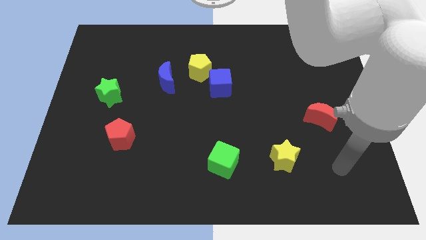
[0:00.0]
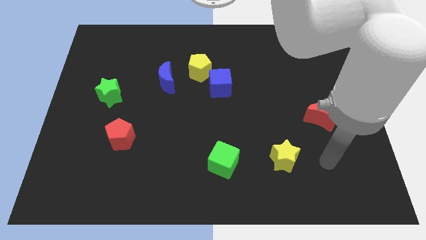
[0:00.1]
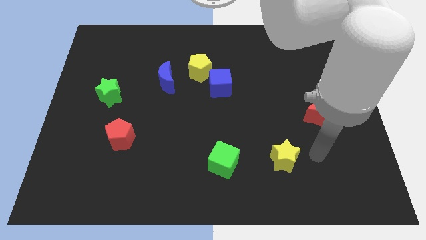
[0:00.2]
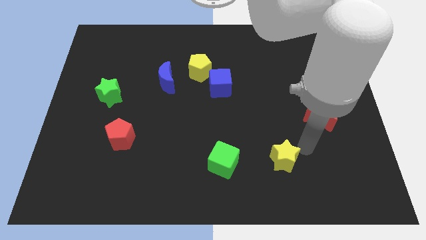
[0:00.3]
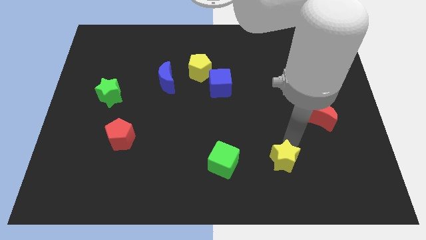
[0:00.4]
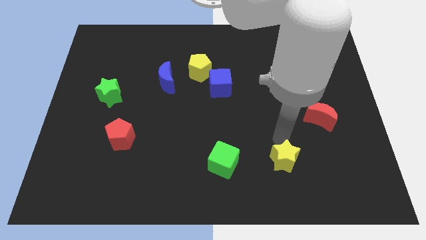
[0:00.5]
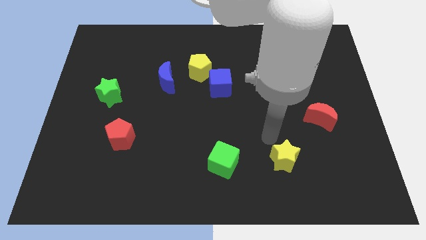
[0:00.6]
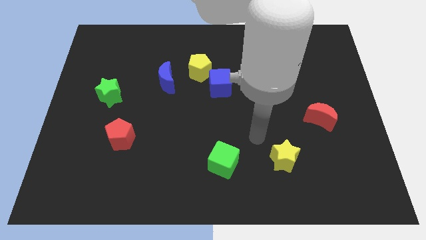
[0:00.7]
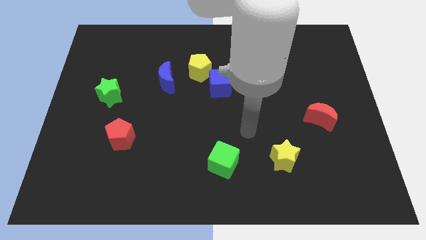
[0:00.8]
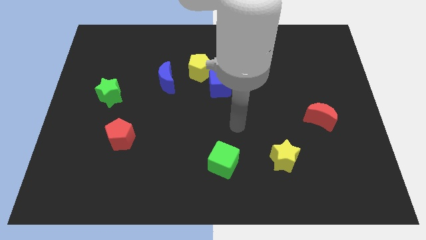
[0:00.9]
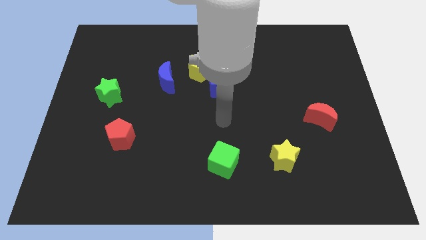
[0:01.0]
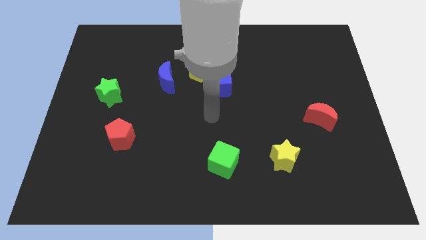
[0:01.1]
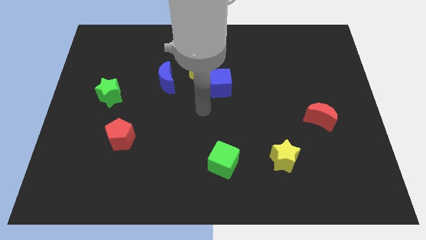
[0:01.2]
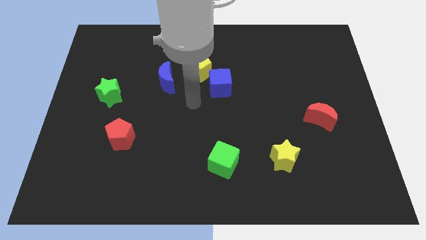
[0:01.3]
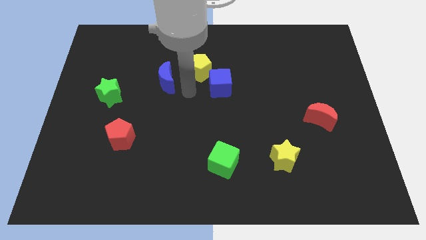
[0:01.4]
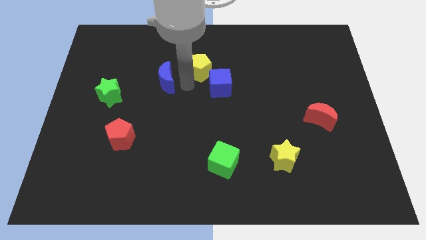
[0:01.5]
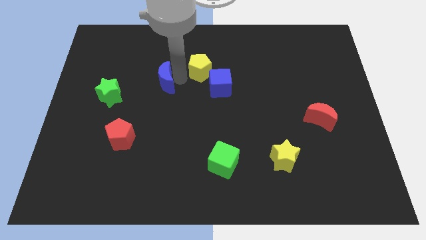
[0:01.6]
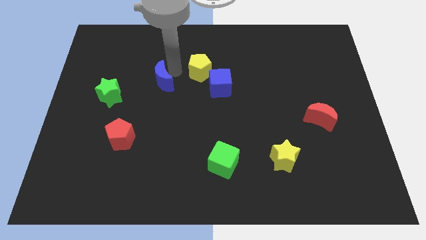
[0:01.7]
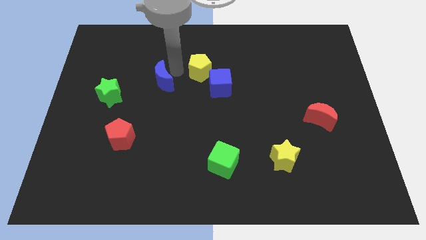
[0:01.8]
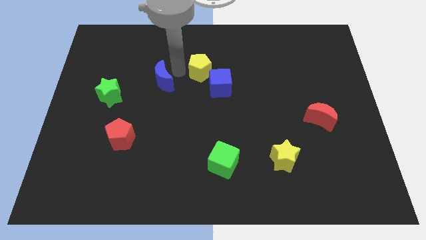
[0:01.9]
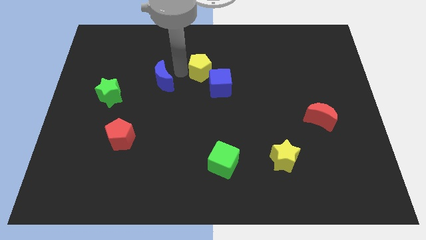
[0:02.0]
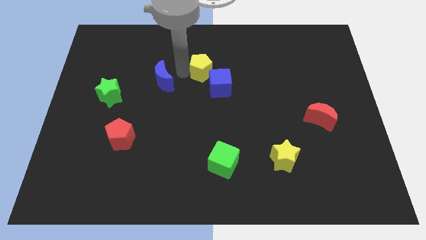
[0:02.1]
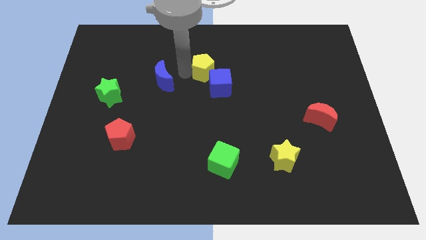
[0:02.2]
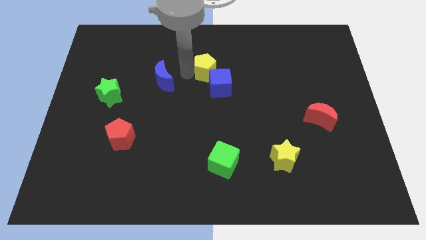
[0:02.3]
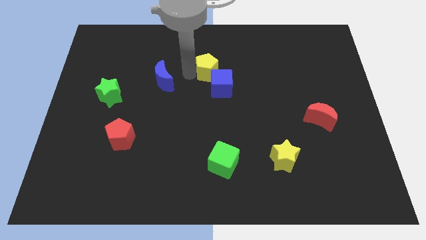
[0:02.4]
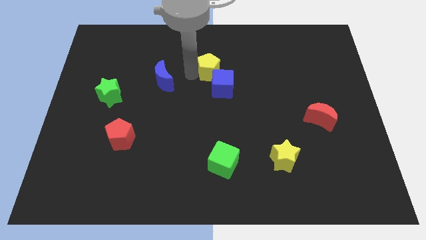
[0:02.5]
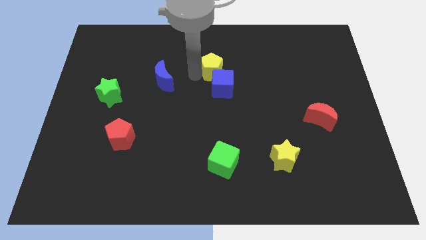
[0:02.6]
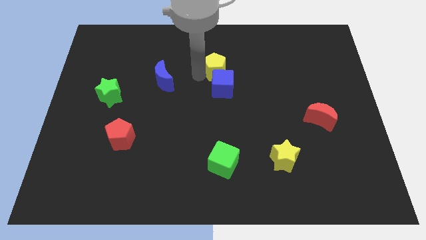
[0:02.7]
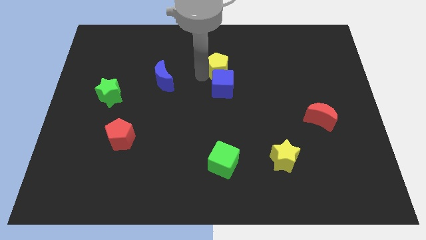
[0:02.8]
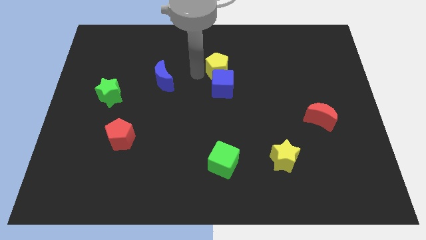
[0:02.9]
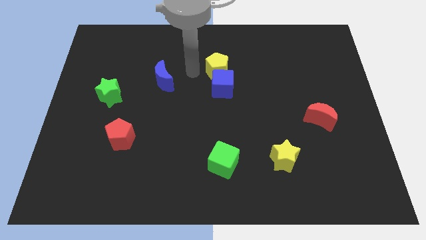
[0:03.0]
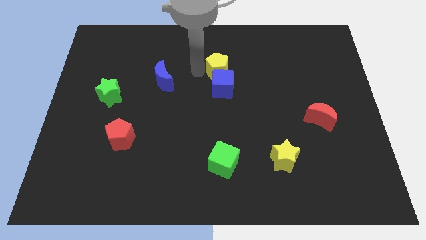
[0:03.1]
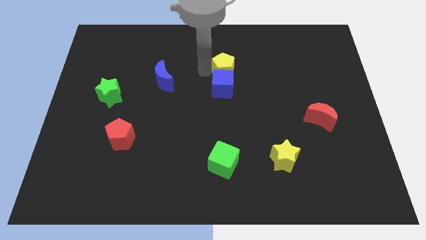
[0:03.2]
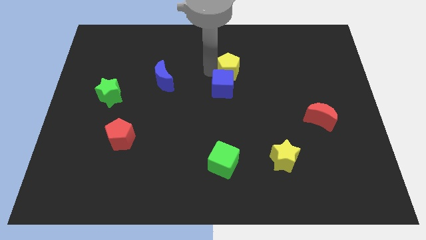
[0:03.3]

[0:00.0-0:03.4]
slightly push the yellow pentagon to the right

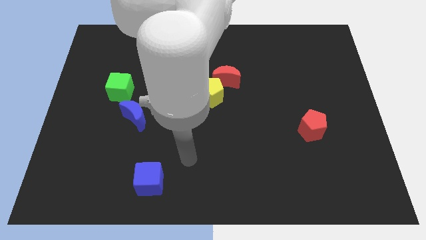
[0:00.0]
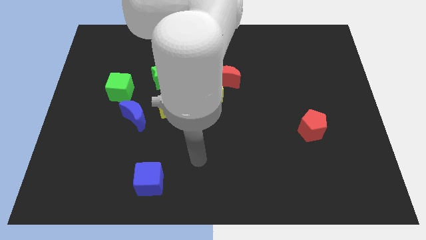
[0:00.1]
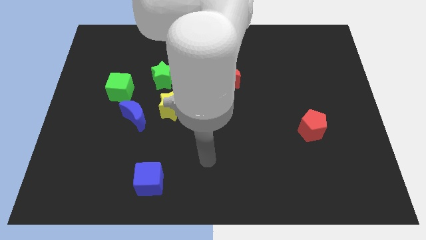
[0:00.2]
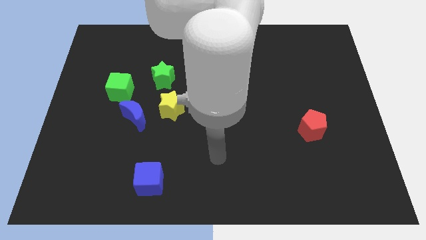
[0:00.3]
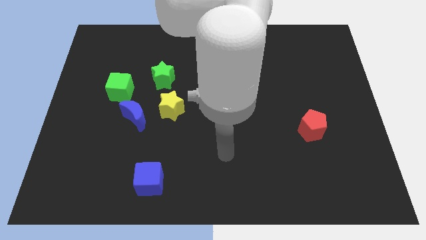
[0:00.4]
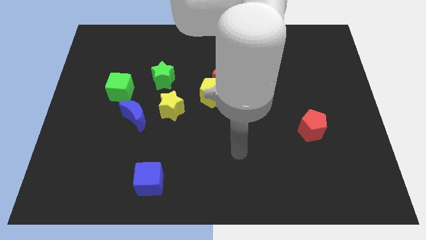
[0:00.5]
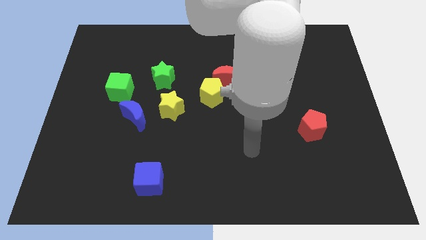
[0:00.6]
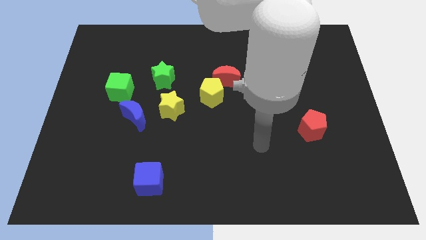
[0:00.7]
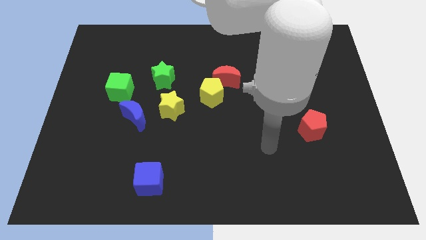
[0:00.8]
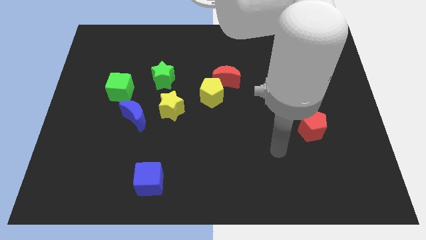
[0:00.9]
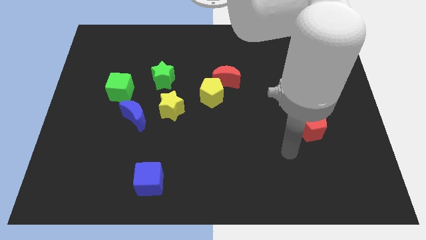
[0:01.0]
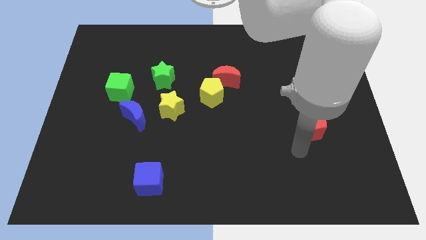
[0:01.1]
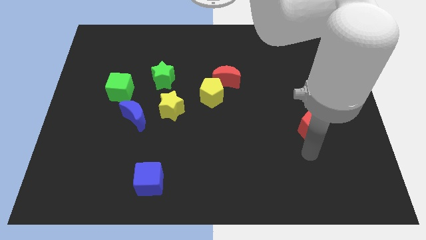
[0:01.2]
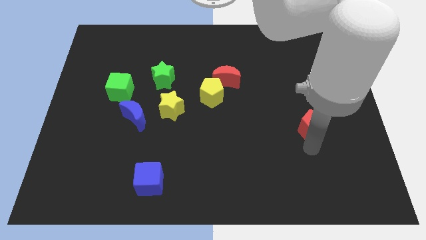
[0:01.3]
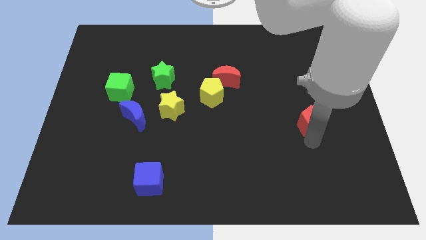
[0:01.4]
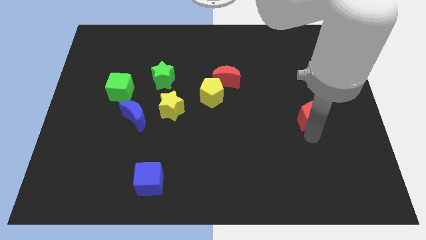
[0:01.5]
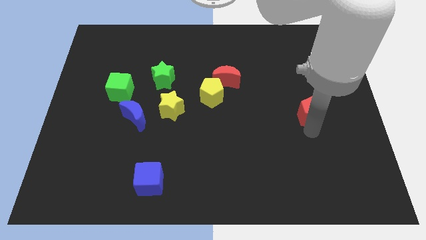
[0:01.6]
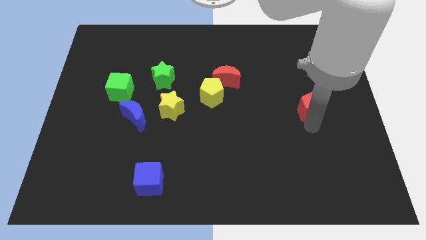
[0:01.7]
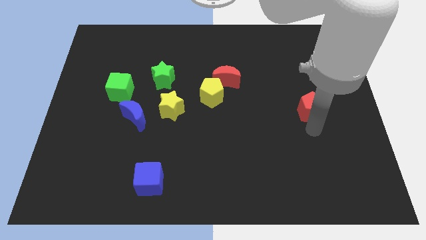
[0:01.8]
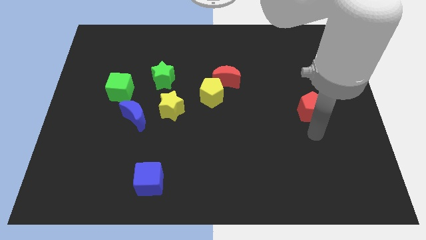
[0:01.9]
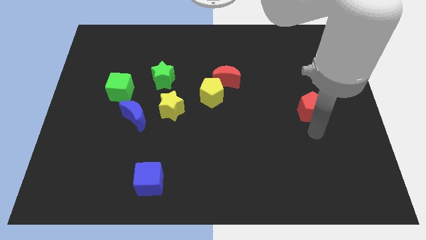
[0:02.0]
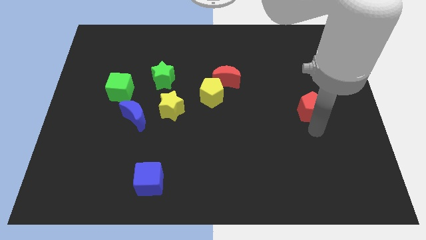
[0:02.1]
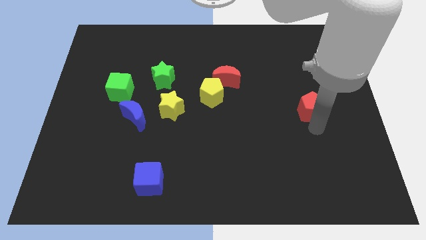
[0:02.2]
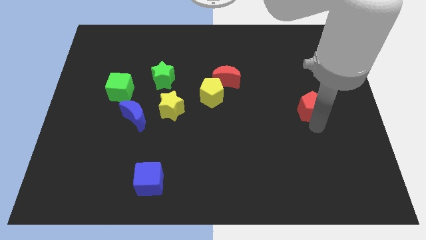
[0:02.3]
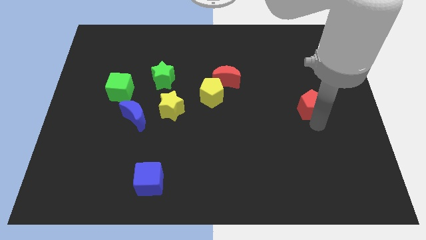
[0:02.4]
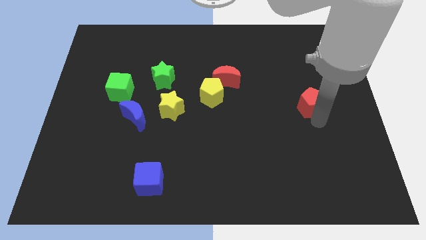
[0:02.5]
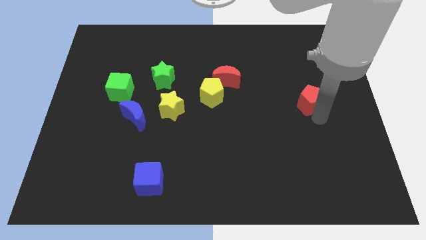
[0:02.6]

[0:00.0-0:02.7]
slide the red pentagon a little bit upwards

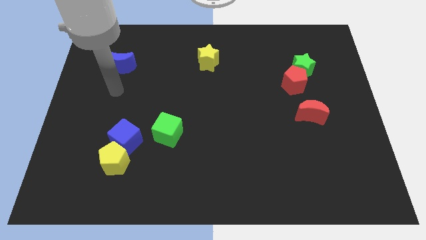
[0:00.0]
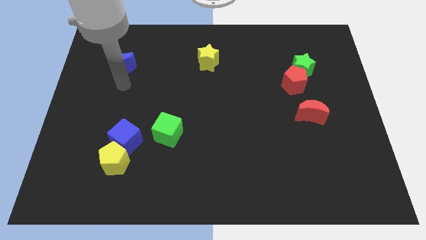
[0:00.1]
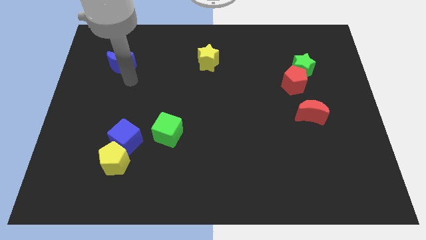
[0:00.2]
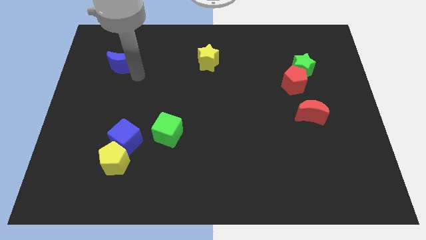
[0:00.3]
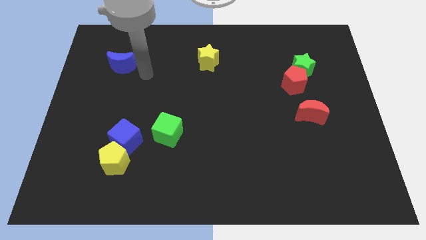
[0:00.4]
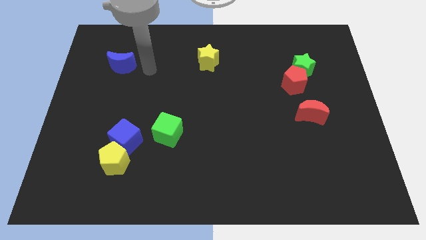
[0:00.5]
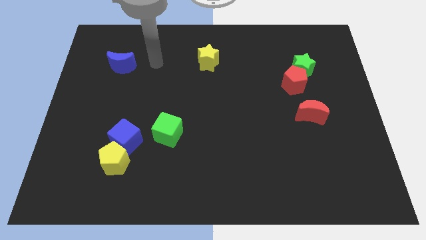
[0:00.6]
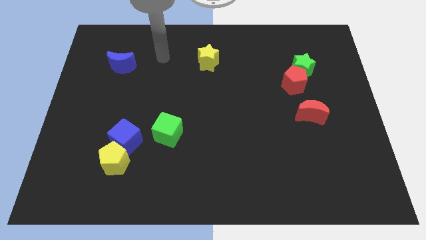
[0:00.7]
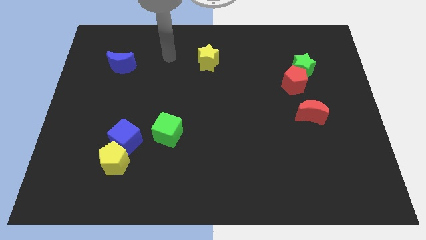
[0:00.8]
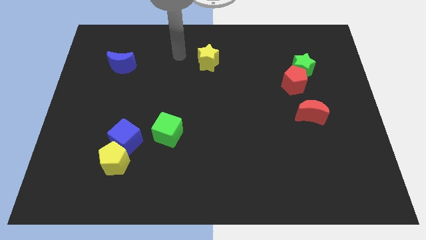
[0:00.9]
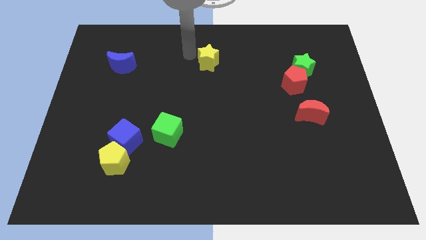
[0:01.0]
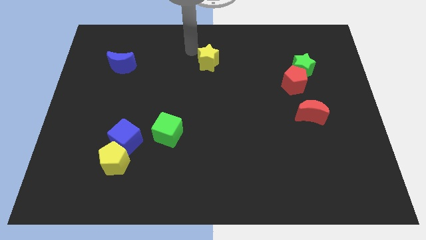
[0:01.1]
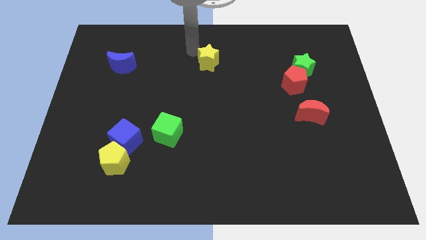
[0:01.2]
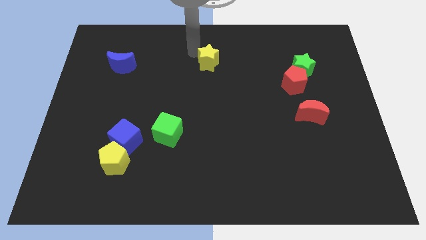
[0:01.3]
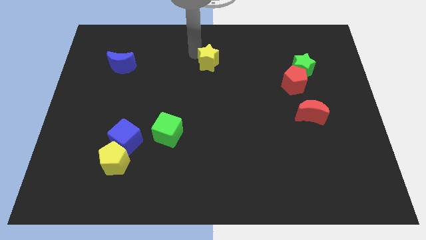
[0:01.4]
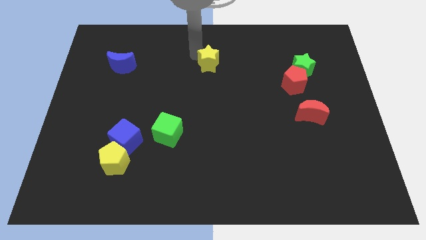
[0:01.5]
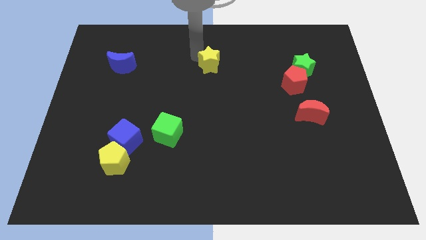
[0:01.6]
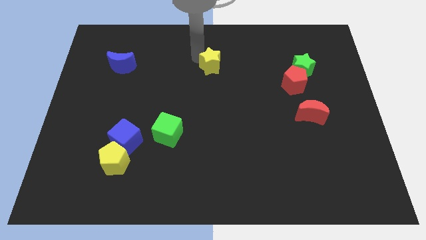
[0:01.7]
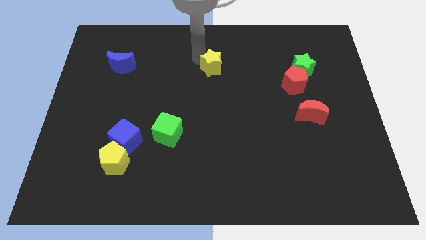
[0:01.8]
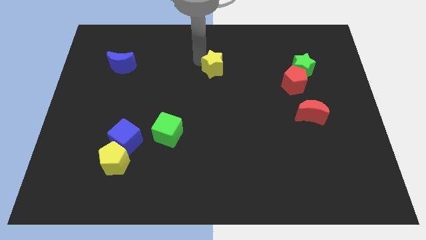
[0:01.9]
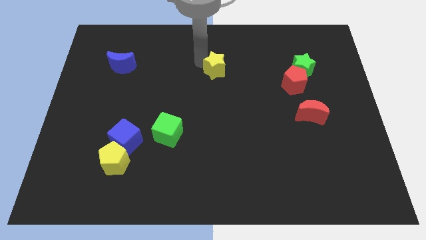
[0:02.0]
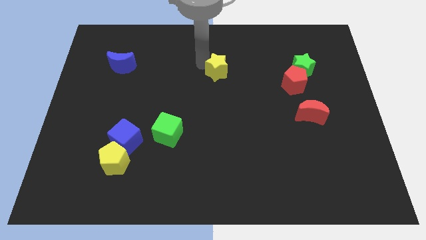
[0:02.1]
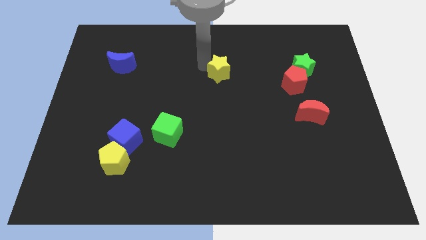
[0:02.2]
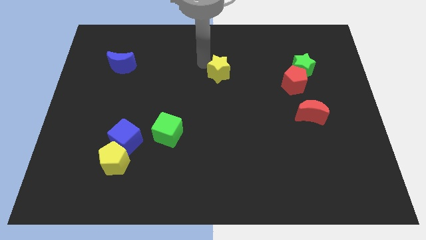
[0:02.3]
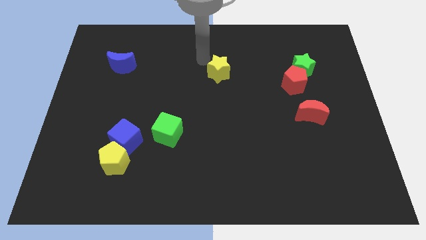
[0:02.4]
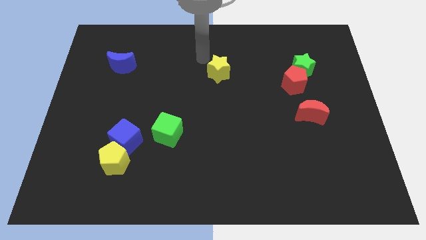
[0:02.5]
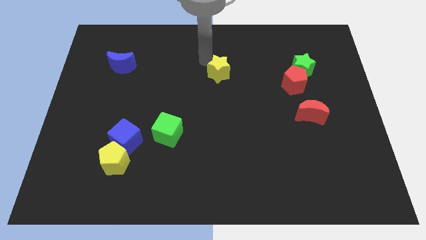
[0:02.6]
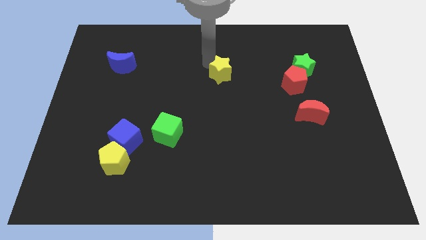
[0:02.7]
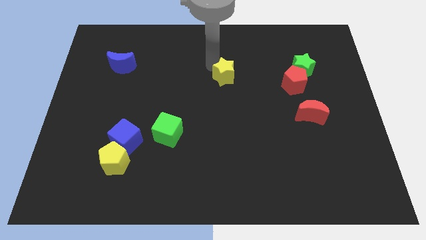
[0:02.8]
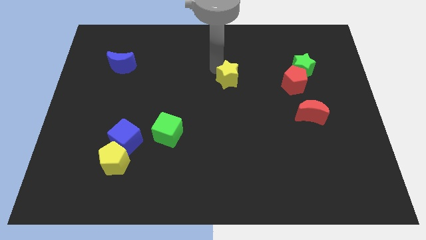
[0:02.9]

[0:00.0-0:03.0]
push the yellow star downwards and then to the right a little
